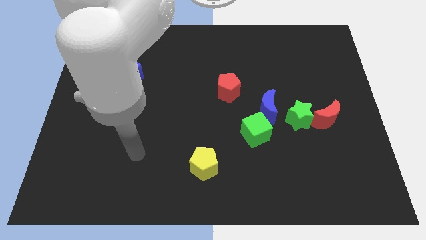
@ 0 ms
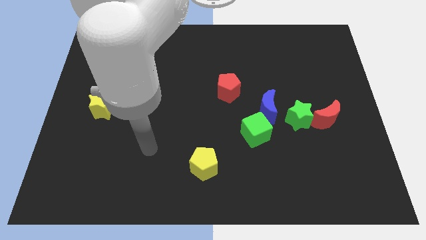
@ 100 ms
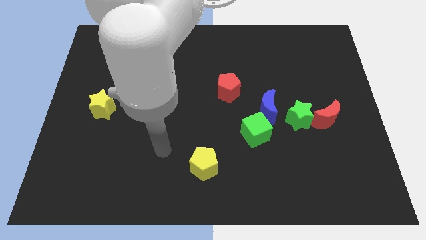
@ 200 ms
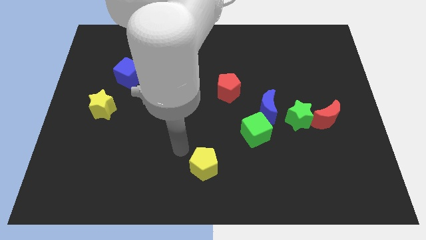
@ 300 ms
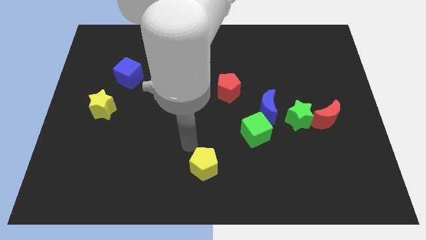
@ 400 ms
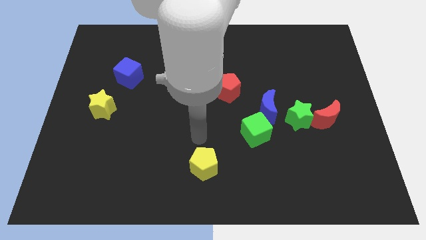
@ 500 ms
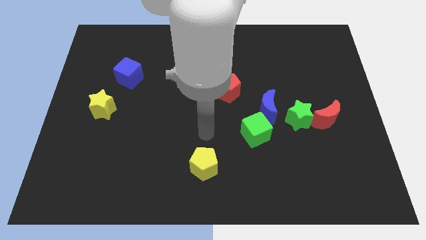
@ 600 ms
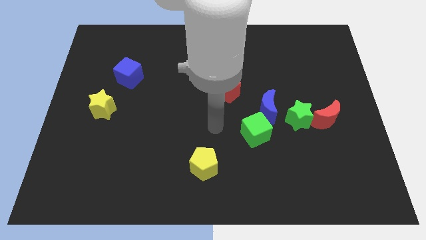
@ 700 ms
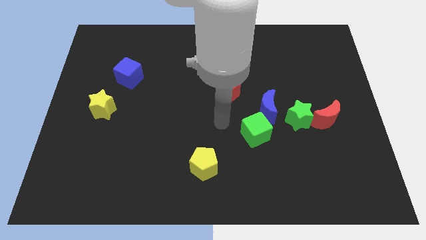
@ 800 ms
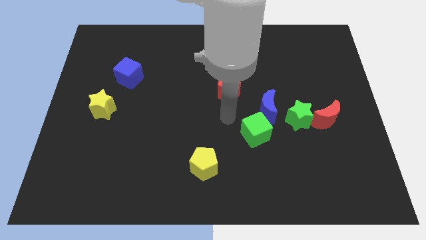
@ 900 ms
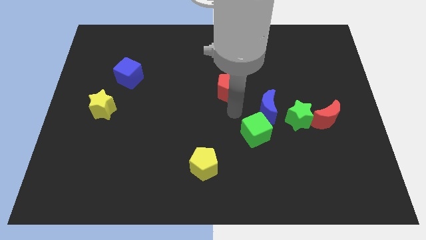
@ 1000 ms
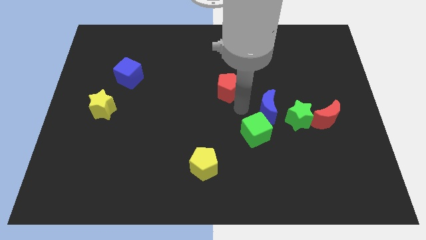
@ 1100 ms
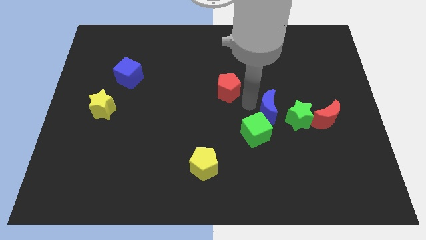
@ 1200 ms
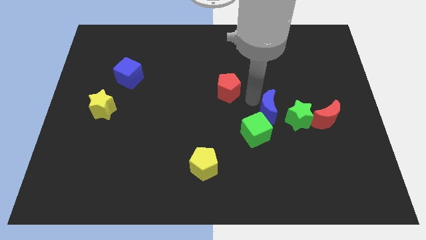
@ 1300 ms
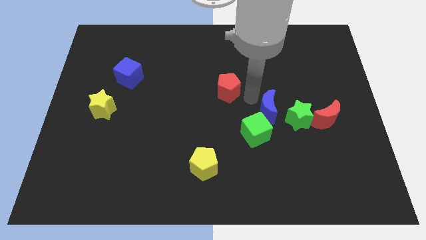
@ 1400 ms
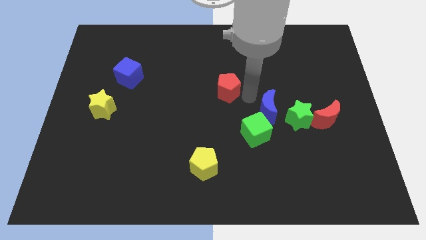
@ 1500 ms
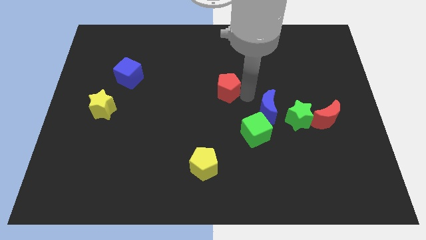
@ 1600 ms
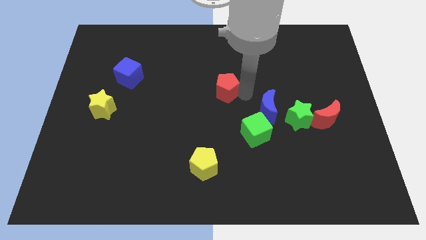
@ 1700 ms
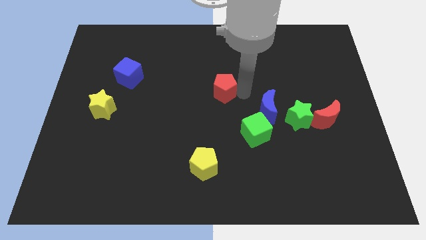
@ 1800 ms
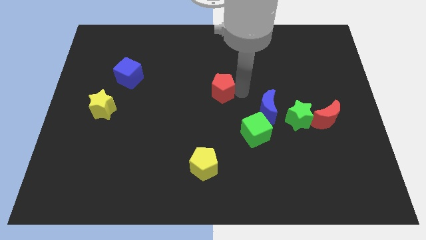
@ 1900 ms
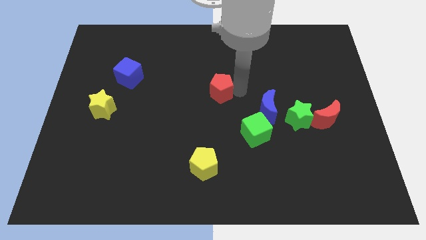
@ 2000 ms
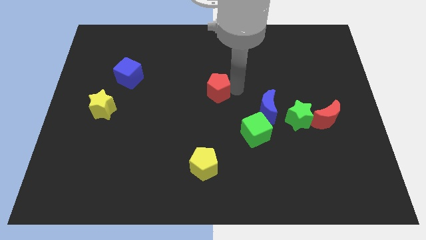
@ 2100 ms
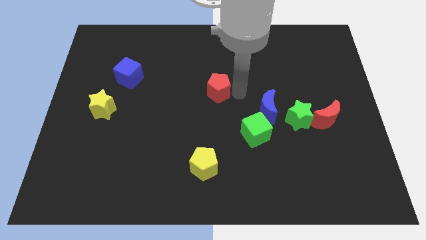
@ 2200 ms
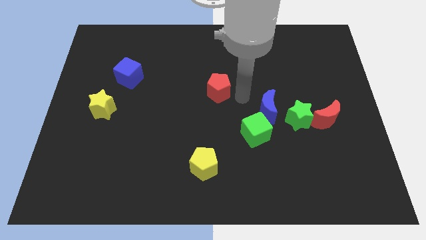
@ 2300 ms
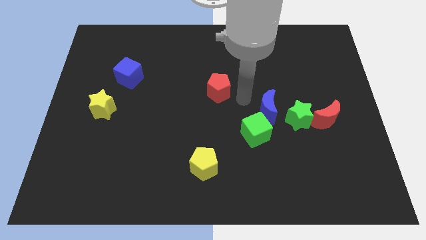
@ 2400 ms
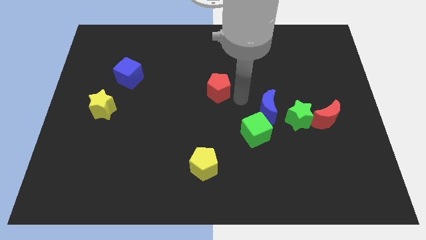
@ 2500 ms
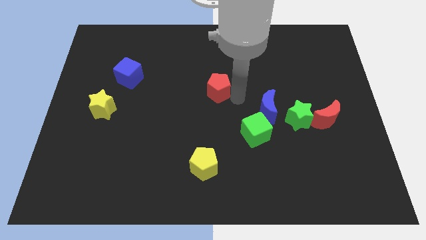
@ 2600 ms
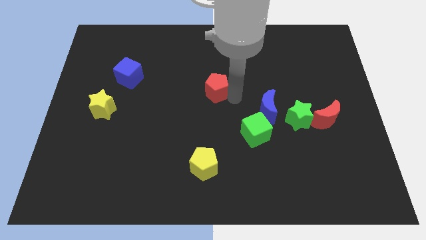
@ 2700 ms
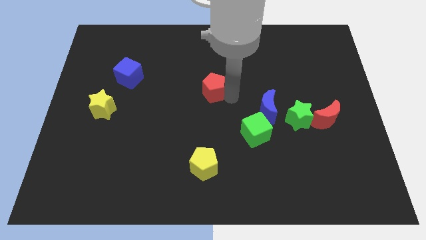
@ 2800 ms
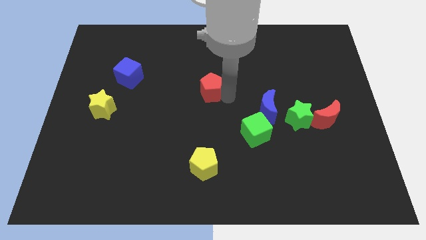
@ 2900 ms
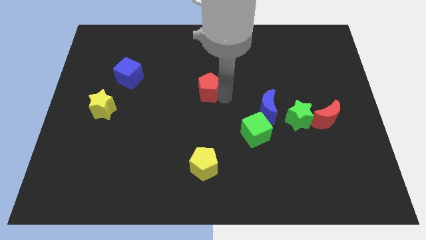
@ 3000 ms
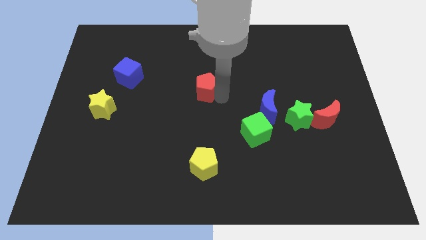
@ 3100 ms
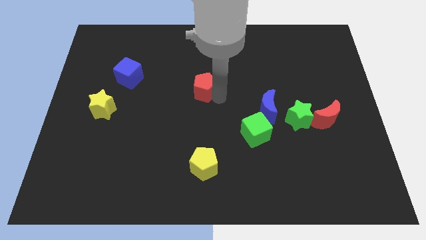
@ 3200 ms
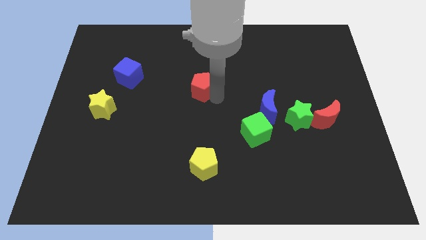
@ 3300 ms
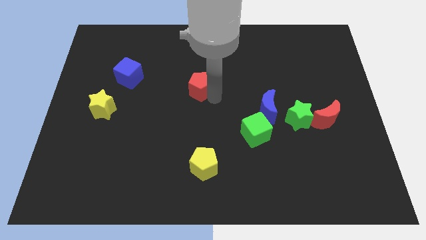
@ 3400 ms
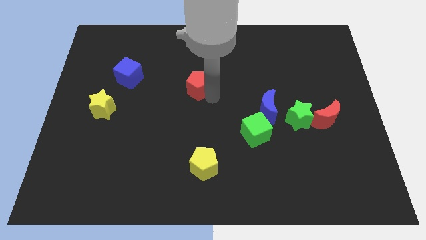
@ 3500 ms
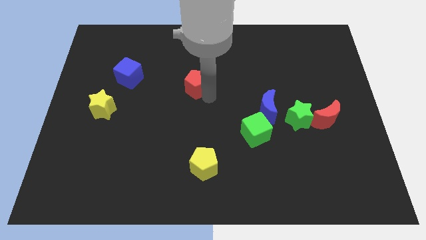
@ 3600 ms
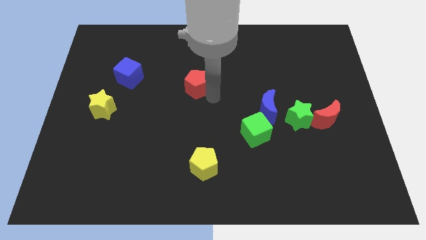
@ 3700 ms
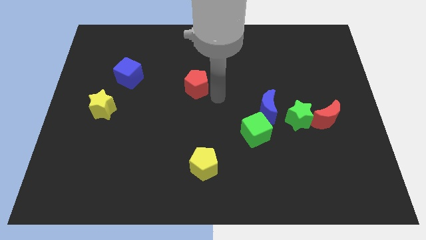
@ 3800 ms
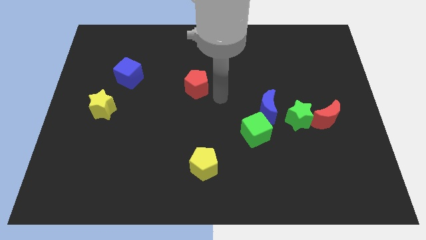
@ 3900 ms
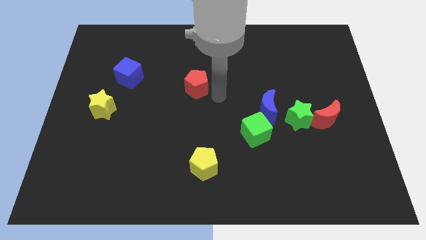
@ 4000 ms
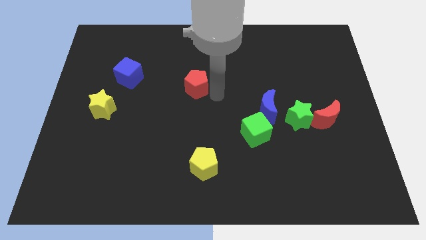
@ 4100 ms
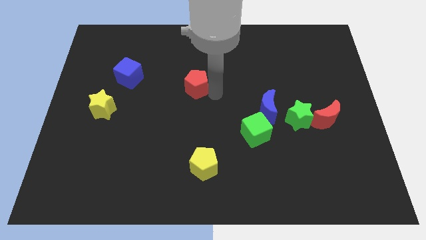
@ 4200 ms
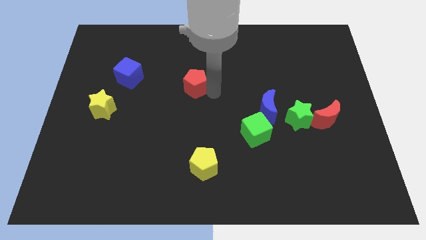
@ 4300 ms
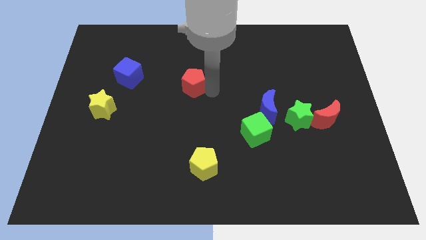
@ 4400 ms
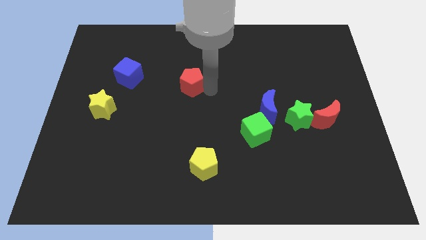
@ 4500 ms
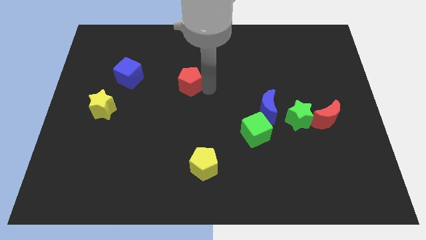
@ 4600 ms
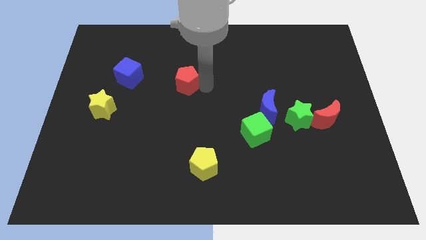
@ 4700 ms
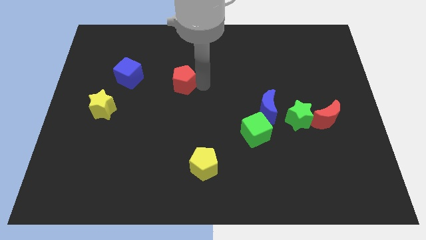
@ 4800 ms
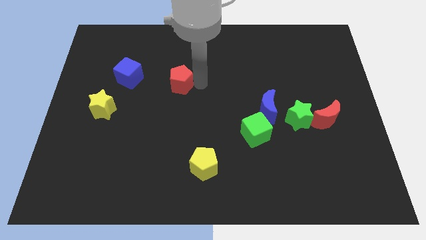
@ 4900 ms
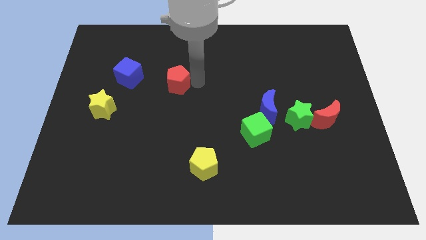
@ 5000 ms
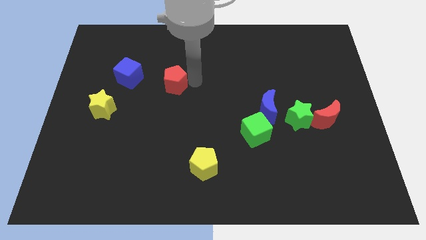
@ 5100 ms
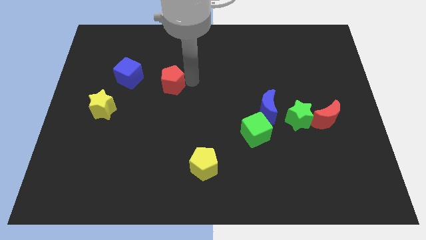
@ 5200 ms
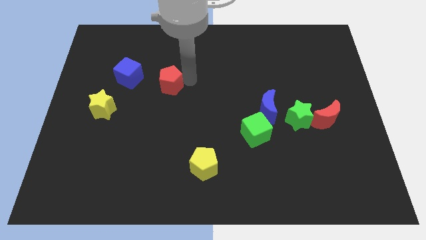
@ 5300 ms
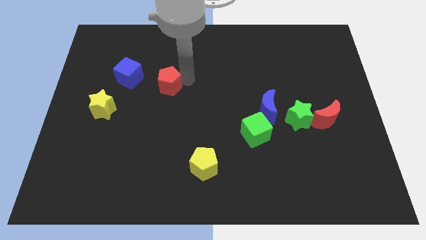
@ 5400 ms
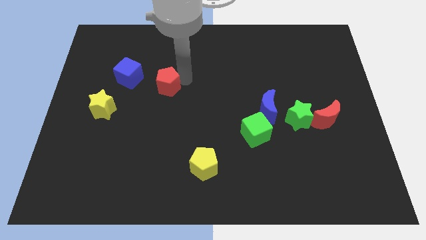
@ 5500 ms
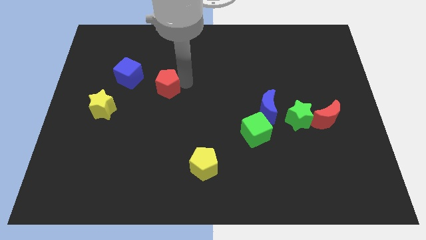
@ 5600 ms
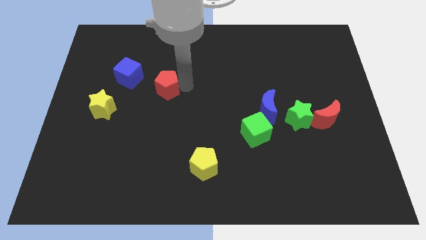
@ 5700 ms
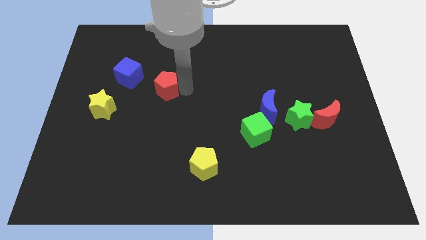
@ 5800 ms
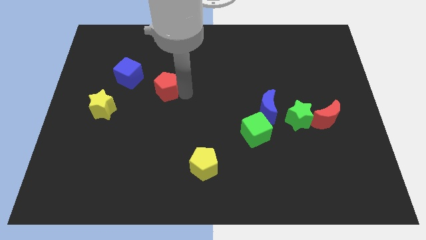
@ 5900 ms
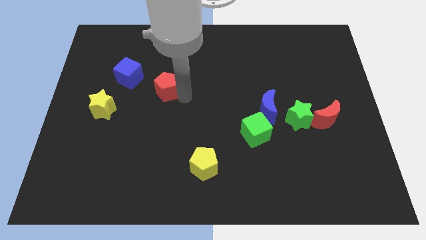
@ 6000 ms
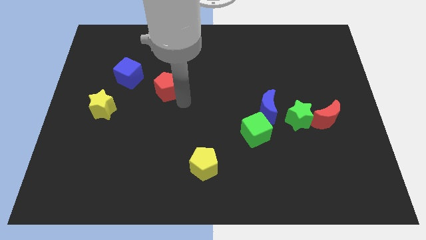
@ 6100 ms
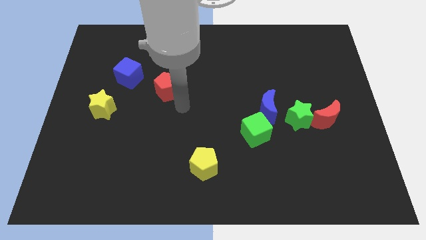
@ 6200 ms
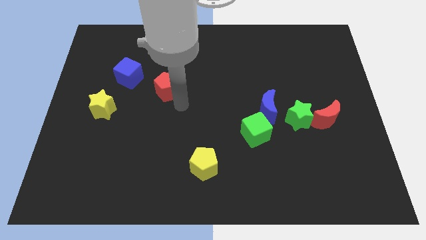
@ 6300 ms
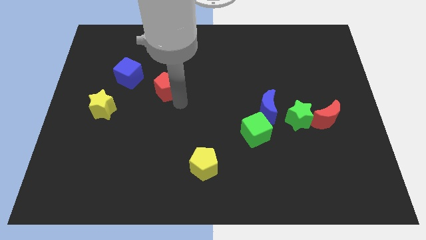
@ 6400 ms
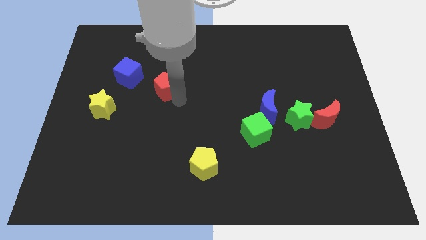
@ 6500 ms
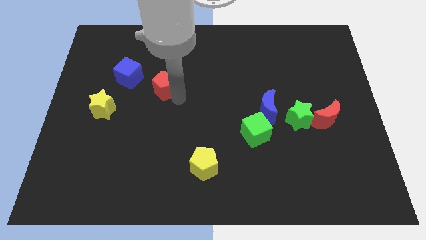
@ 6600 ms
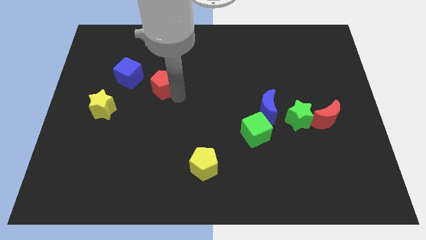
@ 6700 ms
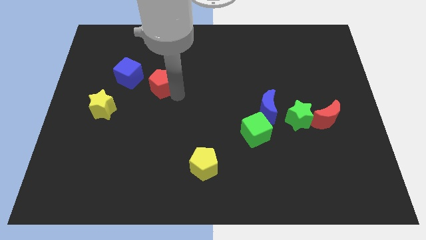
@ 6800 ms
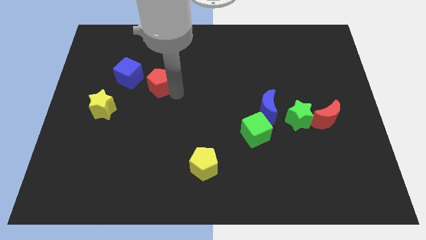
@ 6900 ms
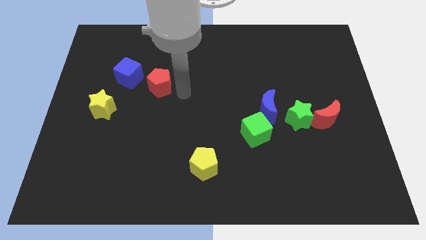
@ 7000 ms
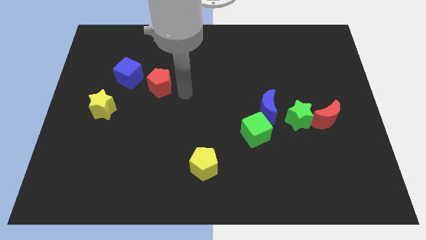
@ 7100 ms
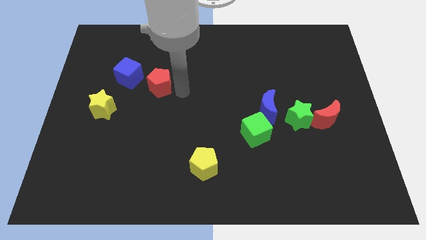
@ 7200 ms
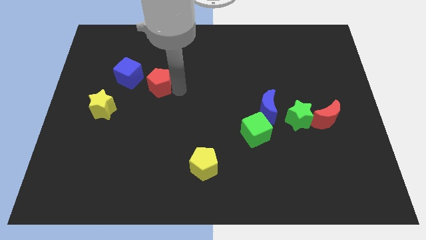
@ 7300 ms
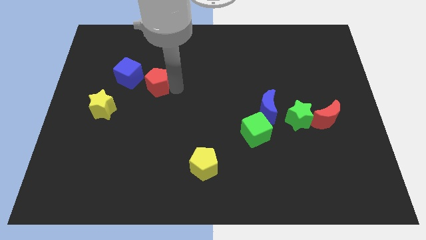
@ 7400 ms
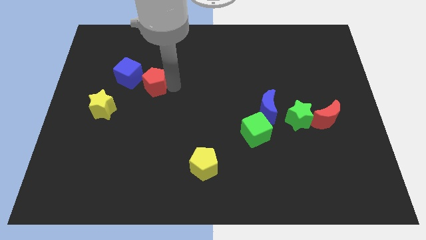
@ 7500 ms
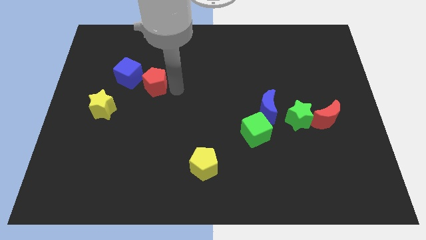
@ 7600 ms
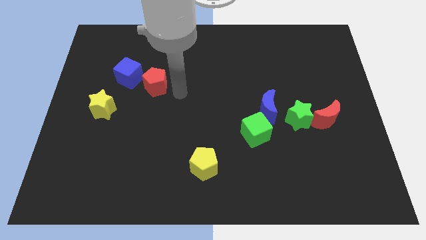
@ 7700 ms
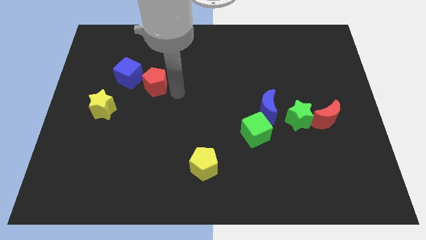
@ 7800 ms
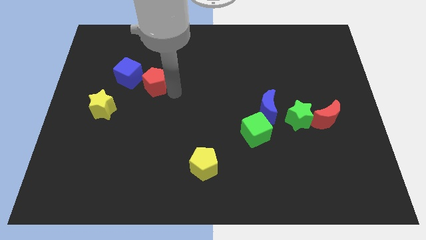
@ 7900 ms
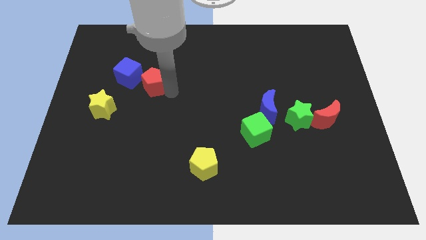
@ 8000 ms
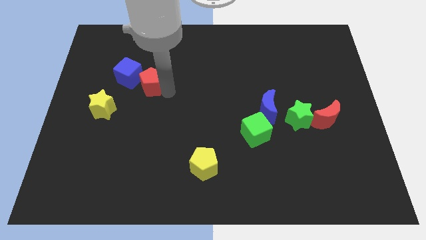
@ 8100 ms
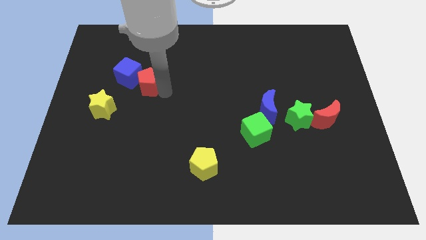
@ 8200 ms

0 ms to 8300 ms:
slide the red pentagon next to the blue cube
